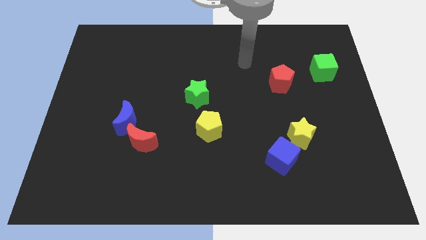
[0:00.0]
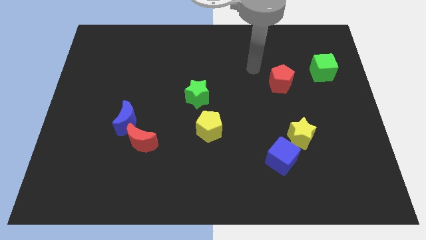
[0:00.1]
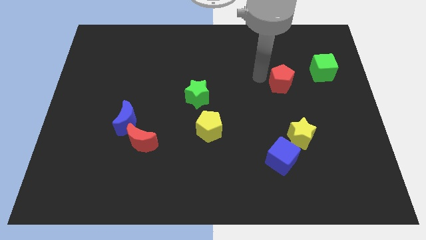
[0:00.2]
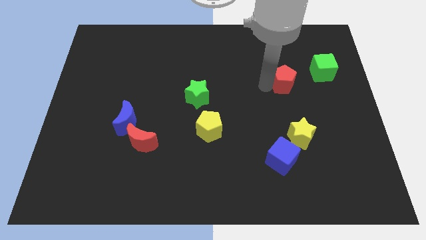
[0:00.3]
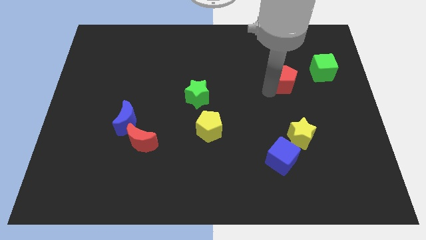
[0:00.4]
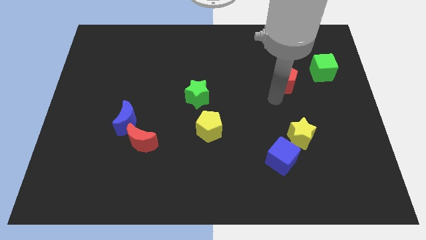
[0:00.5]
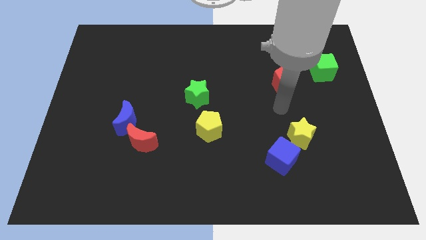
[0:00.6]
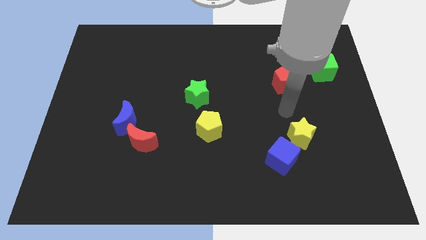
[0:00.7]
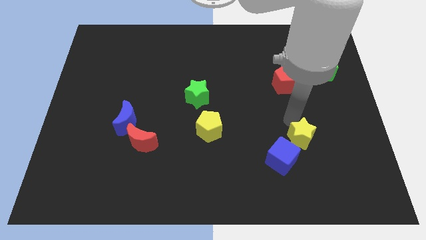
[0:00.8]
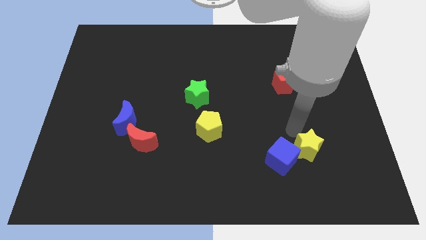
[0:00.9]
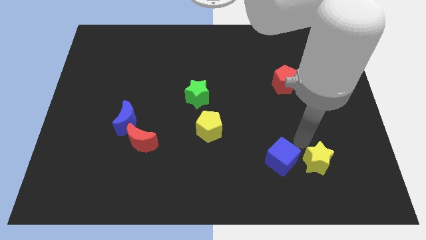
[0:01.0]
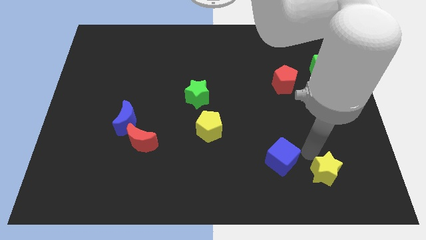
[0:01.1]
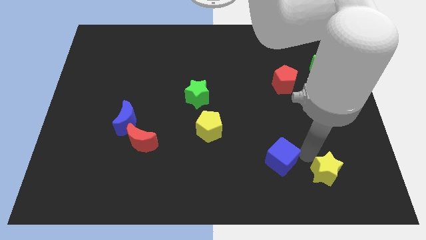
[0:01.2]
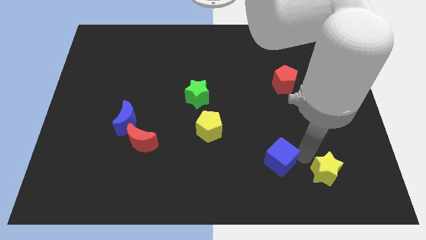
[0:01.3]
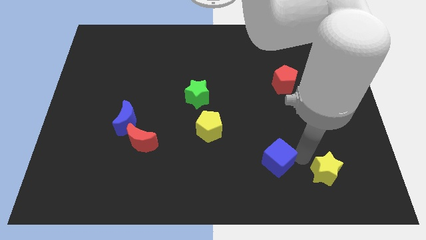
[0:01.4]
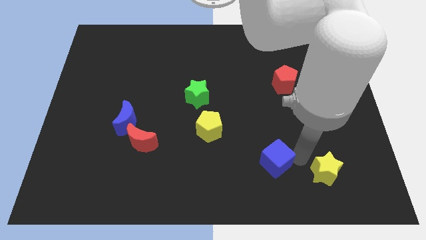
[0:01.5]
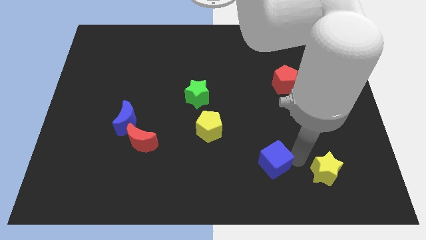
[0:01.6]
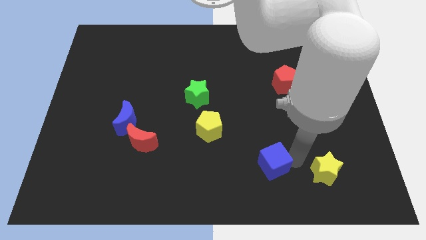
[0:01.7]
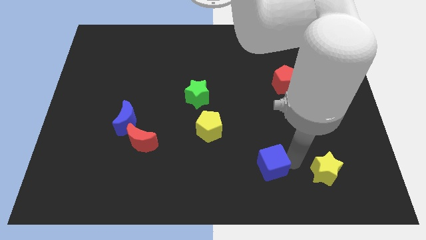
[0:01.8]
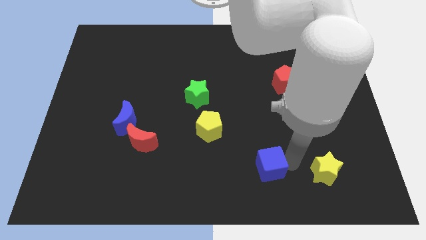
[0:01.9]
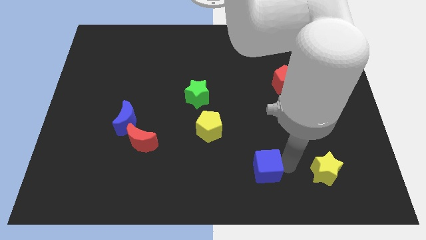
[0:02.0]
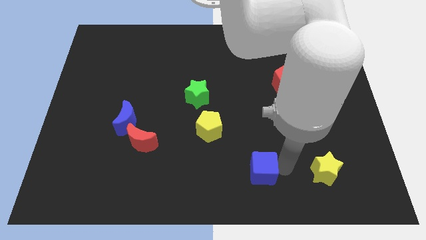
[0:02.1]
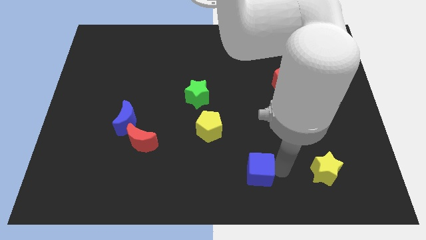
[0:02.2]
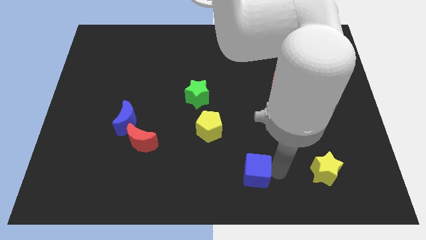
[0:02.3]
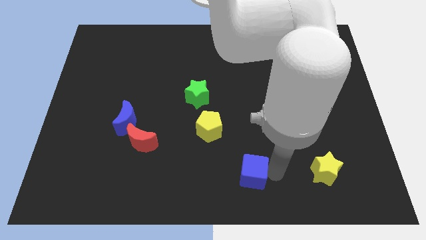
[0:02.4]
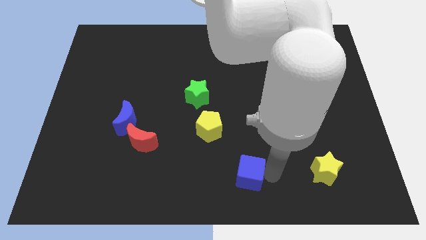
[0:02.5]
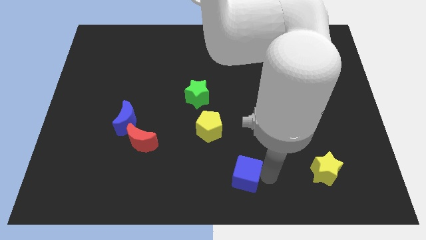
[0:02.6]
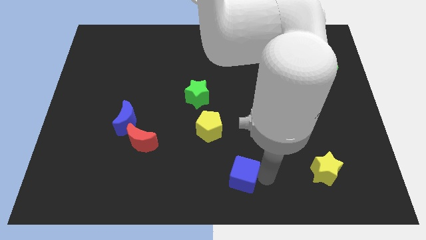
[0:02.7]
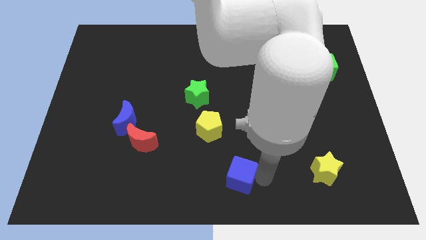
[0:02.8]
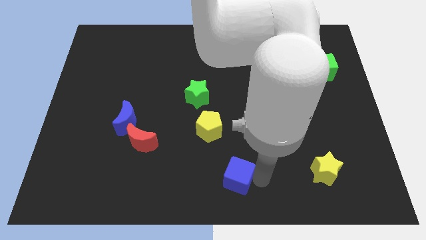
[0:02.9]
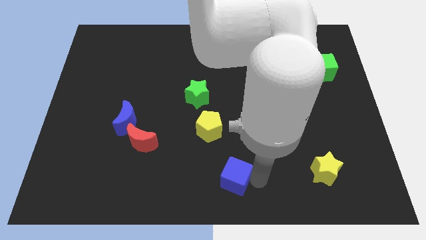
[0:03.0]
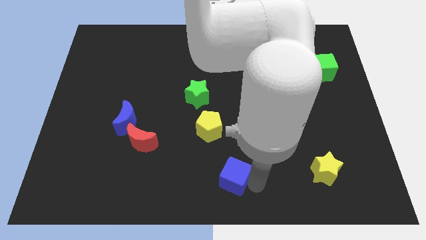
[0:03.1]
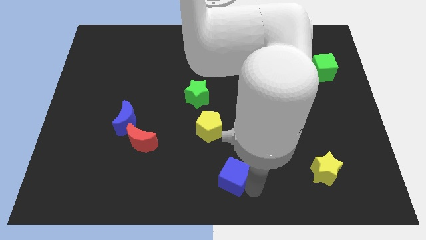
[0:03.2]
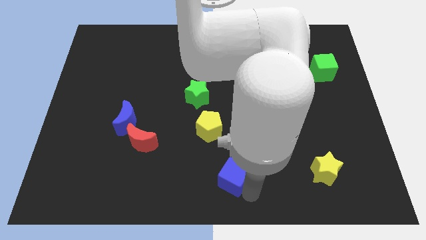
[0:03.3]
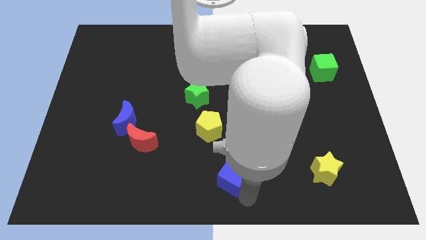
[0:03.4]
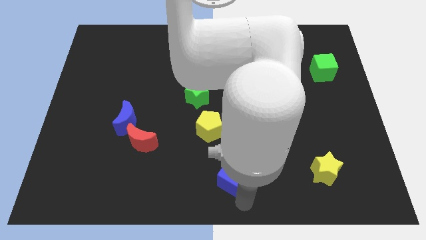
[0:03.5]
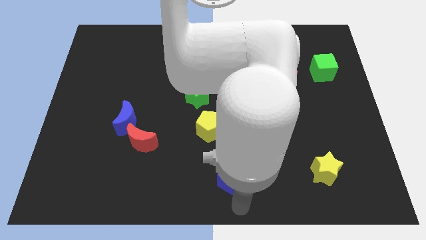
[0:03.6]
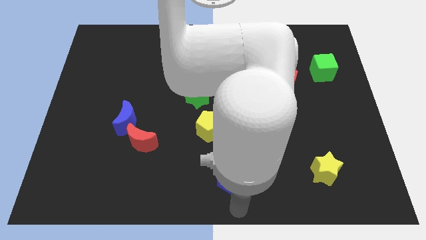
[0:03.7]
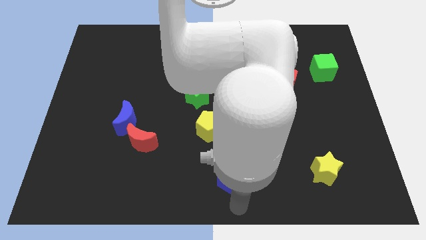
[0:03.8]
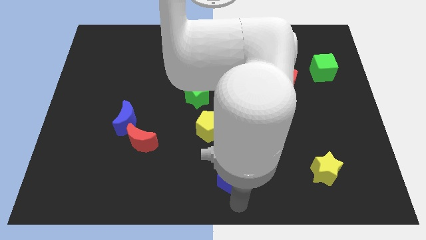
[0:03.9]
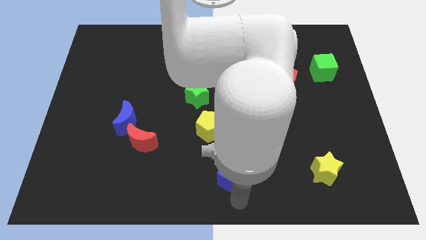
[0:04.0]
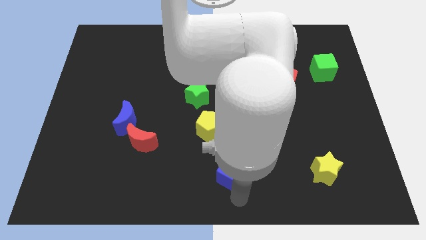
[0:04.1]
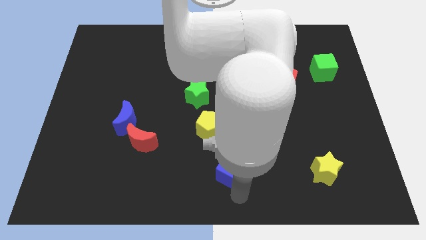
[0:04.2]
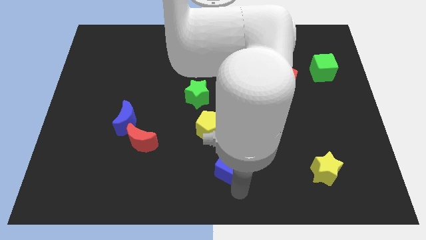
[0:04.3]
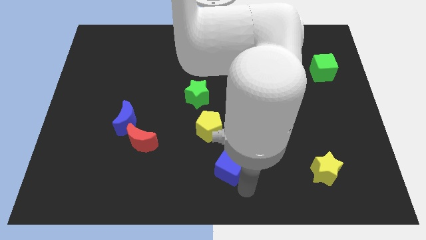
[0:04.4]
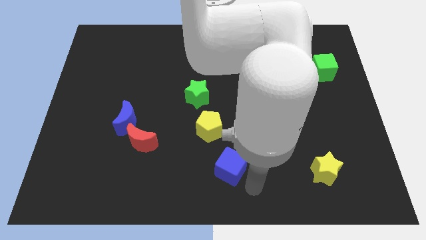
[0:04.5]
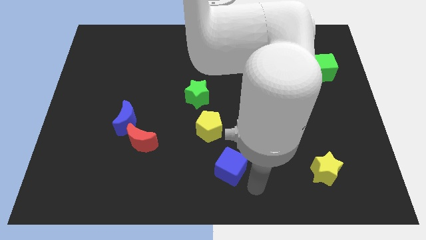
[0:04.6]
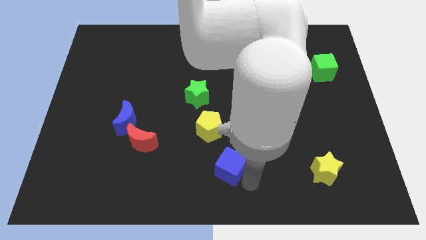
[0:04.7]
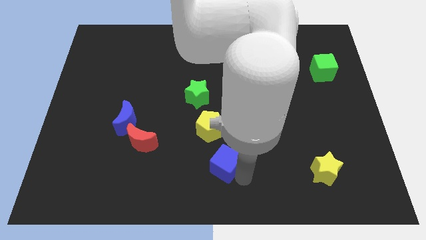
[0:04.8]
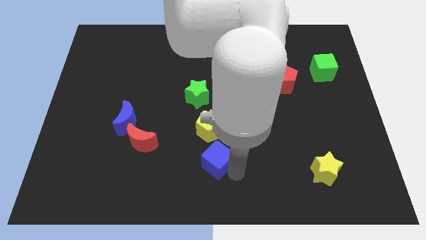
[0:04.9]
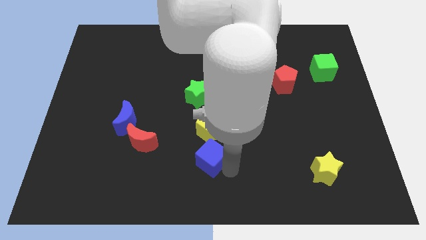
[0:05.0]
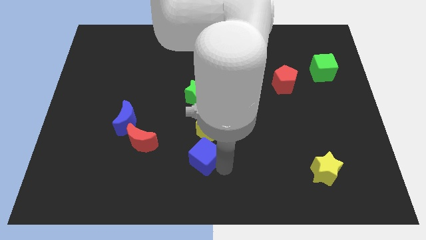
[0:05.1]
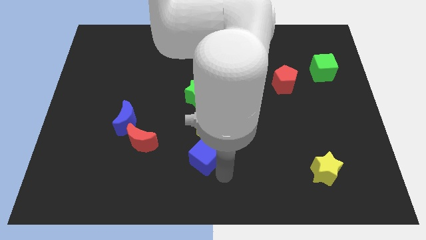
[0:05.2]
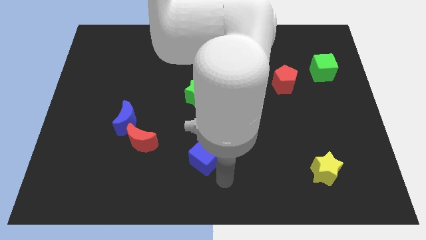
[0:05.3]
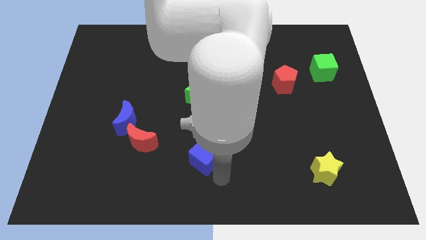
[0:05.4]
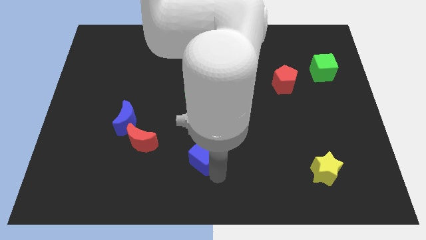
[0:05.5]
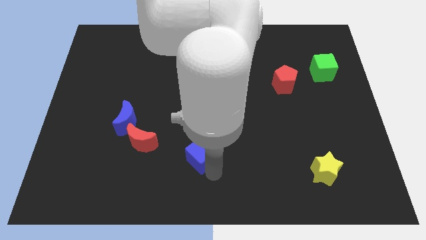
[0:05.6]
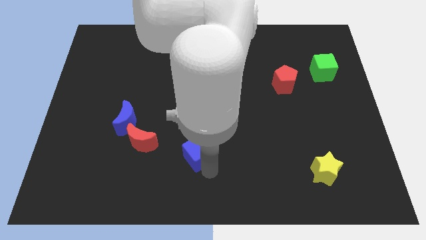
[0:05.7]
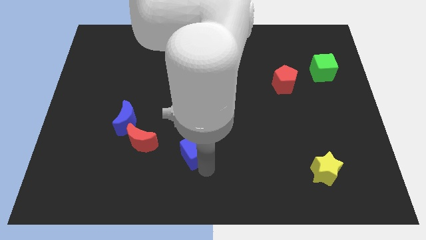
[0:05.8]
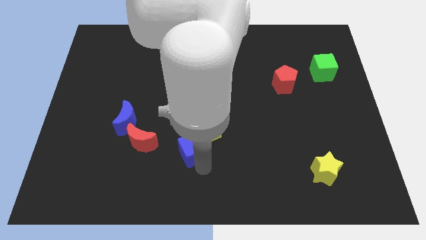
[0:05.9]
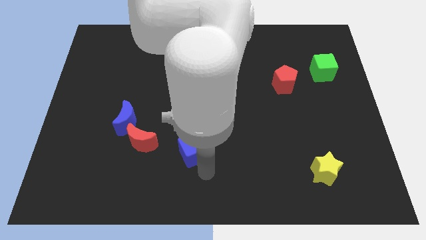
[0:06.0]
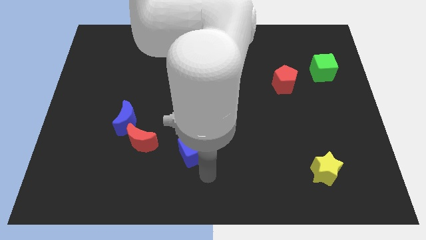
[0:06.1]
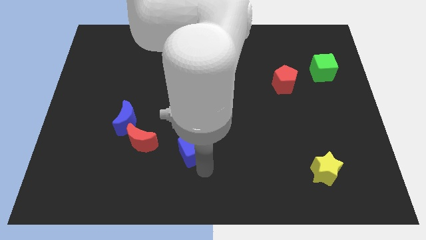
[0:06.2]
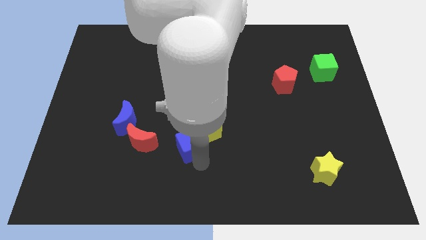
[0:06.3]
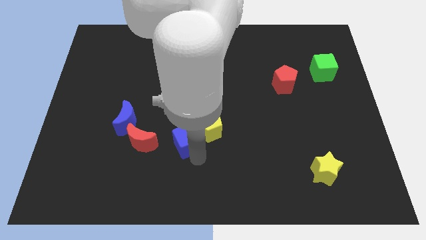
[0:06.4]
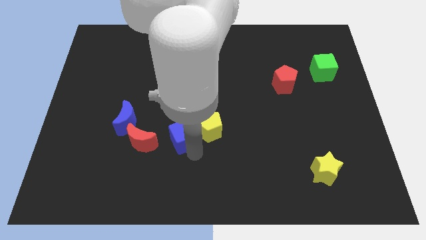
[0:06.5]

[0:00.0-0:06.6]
push the blue cube to the right side of the blue moon

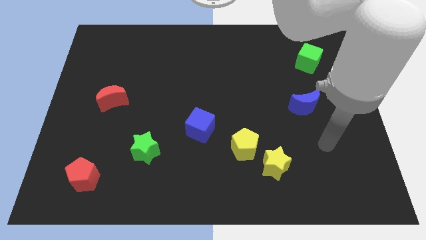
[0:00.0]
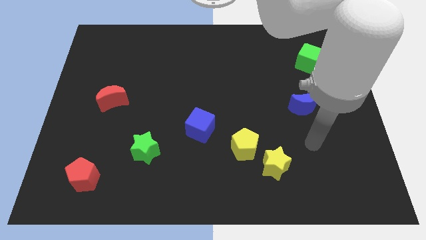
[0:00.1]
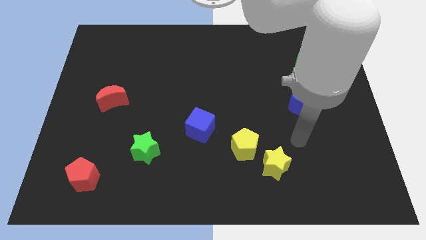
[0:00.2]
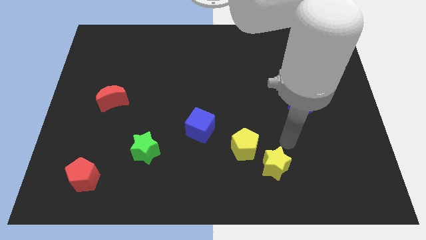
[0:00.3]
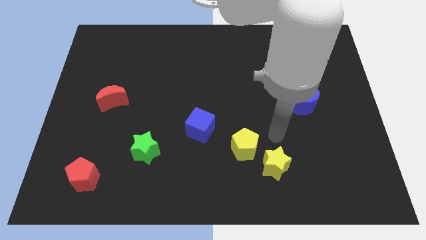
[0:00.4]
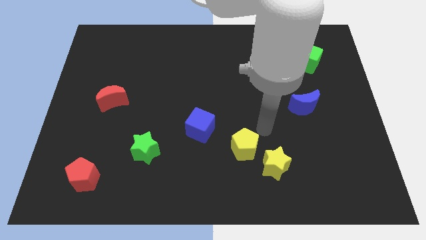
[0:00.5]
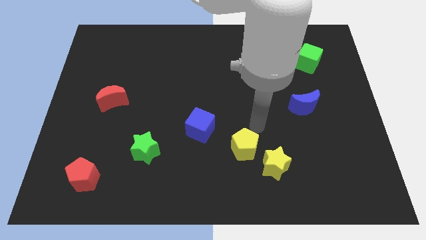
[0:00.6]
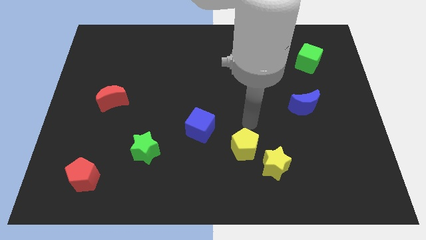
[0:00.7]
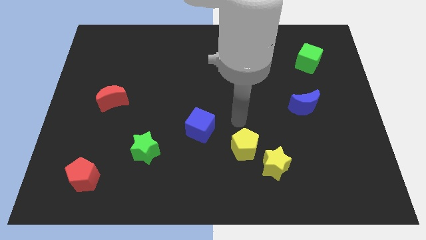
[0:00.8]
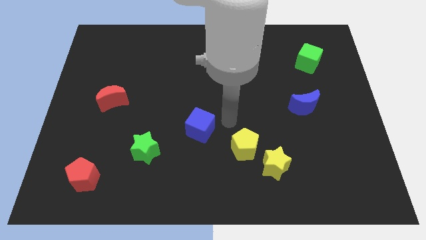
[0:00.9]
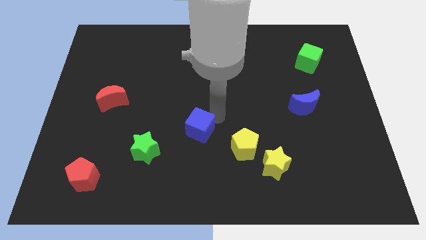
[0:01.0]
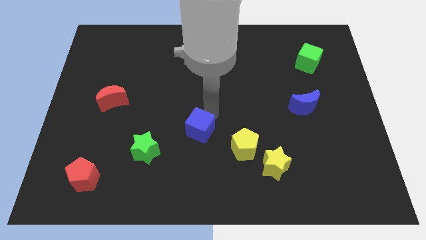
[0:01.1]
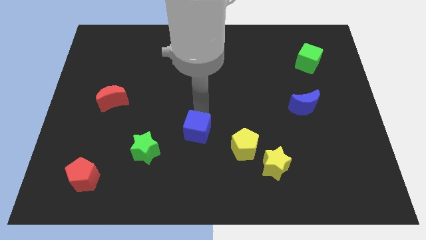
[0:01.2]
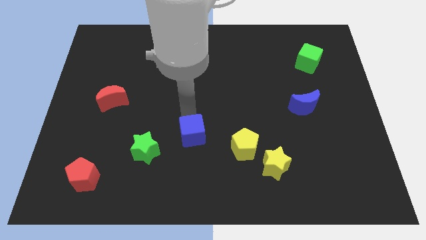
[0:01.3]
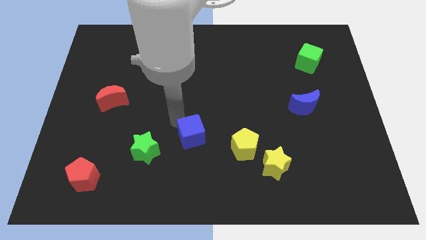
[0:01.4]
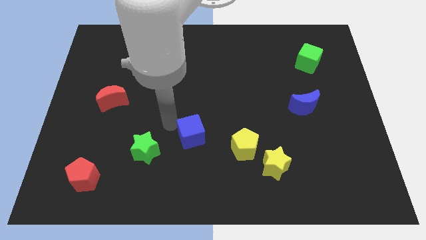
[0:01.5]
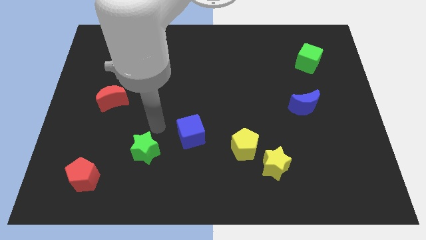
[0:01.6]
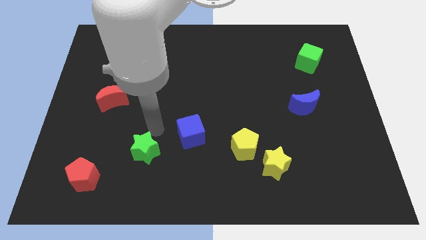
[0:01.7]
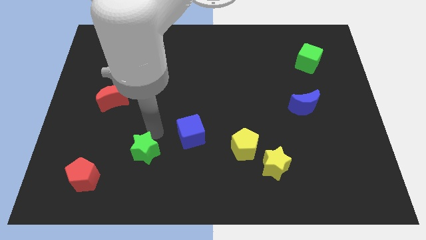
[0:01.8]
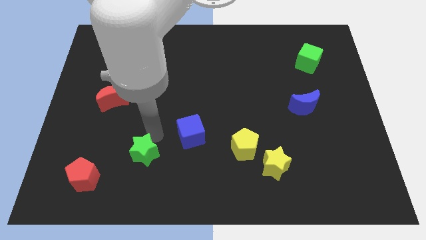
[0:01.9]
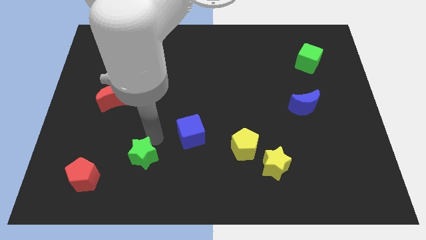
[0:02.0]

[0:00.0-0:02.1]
slide the green star just right of the red pentagon
